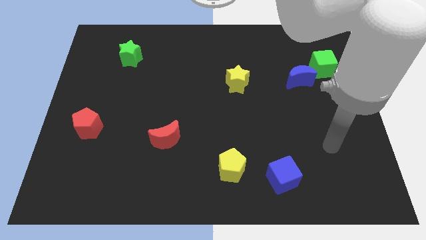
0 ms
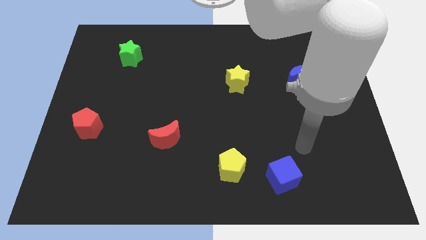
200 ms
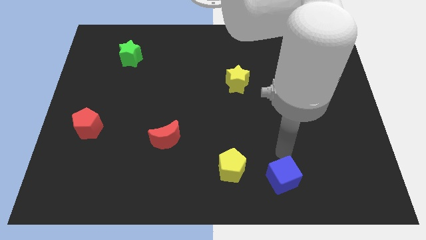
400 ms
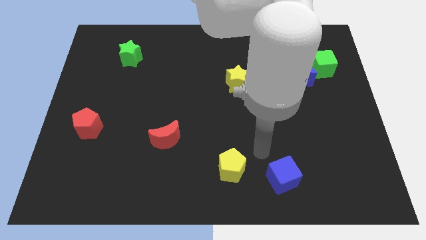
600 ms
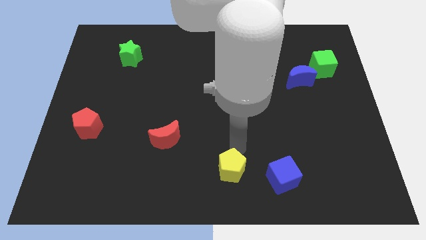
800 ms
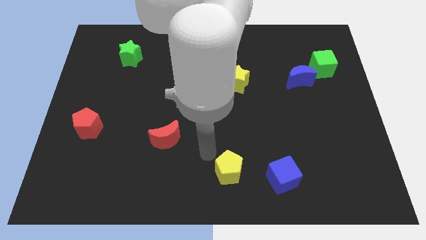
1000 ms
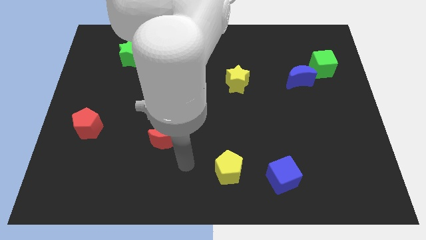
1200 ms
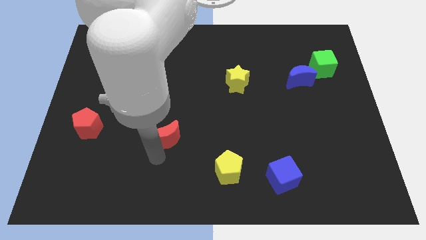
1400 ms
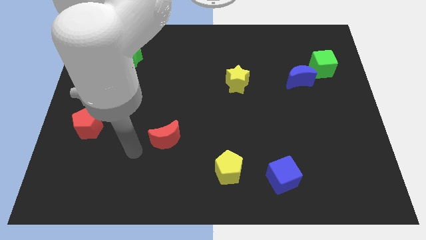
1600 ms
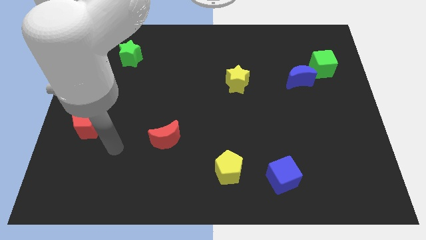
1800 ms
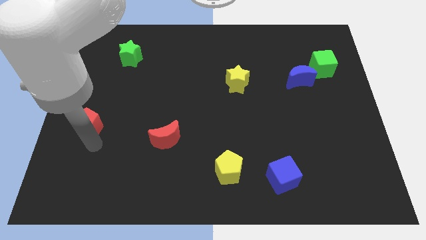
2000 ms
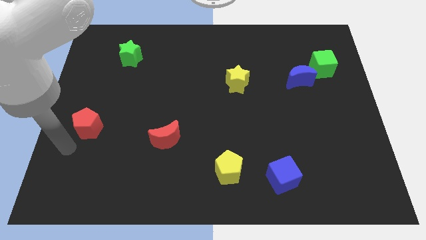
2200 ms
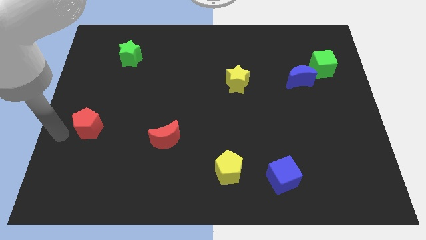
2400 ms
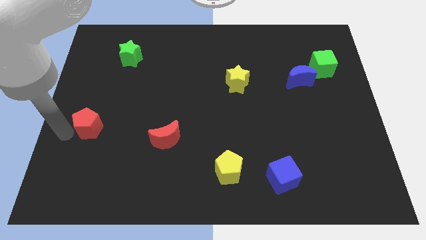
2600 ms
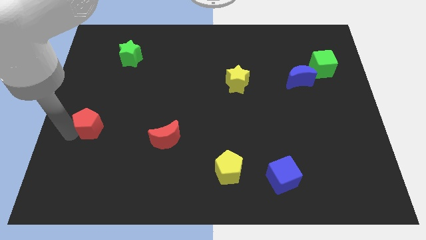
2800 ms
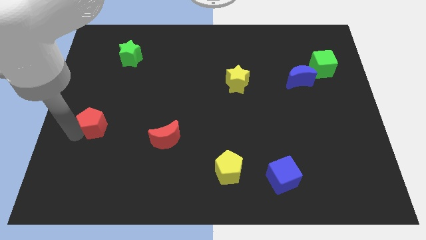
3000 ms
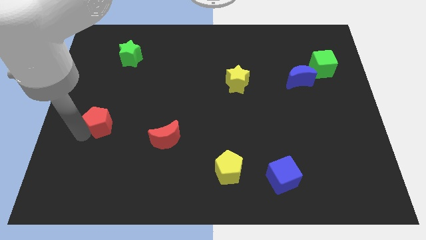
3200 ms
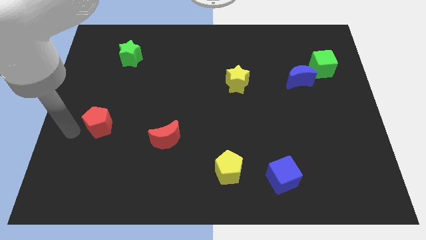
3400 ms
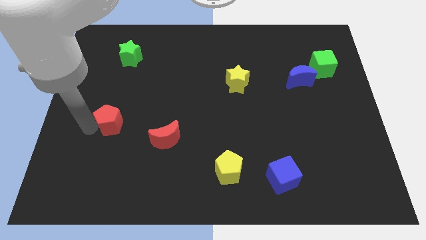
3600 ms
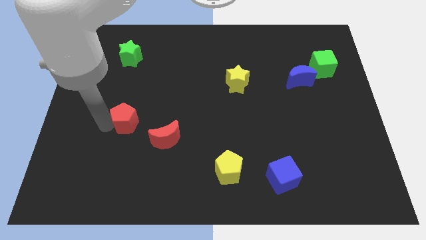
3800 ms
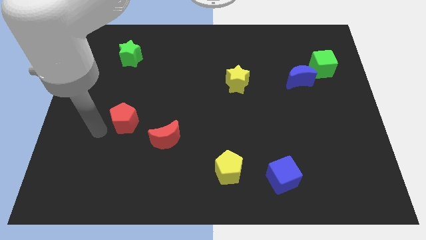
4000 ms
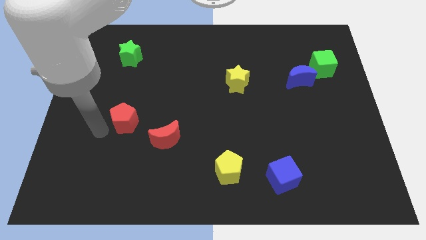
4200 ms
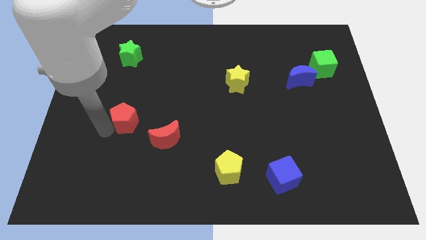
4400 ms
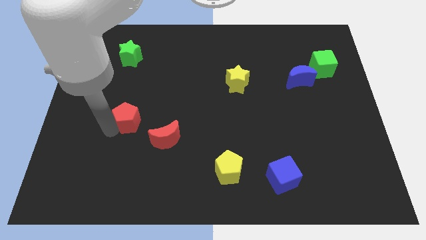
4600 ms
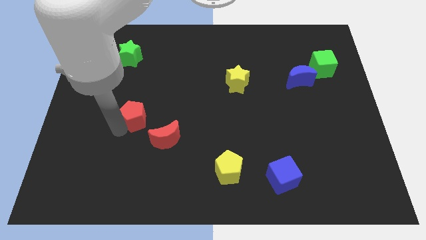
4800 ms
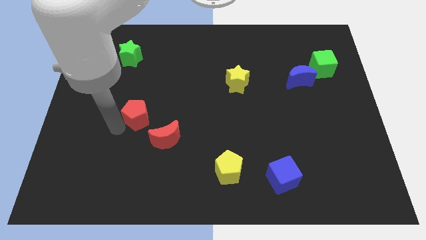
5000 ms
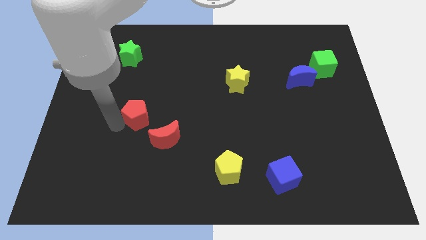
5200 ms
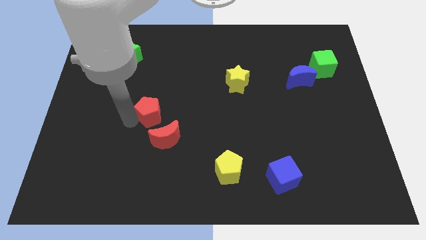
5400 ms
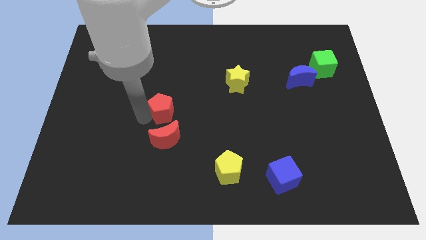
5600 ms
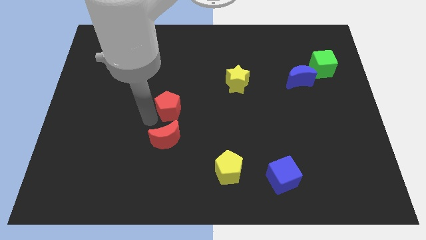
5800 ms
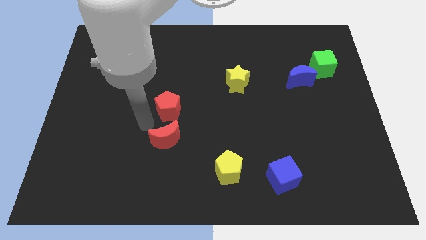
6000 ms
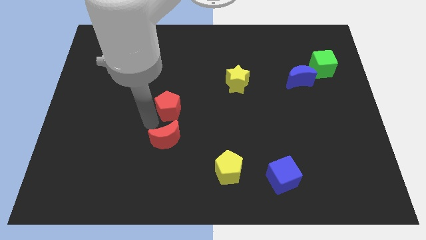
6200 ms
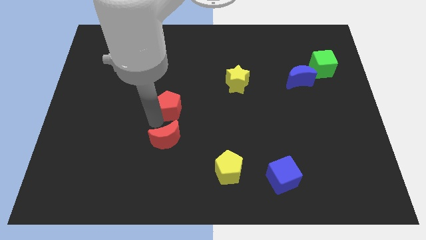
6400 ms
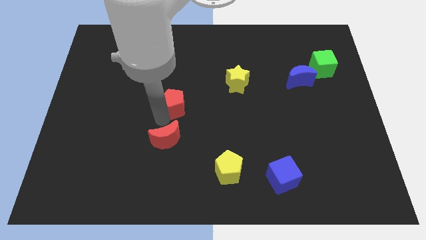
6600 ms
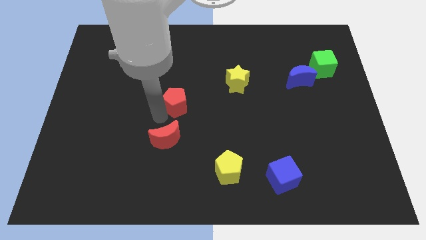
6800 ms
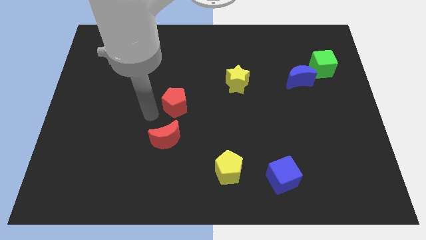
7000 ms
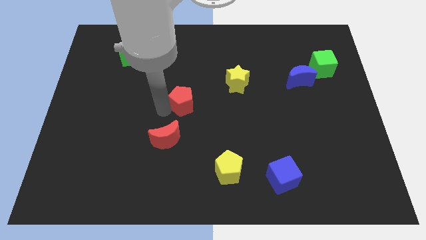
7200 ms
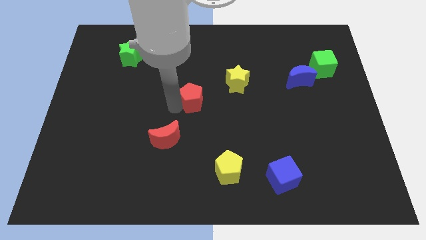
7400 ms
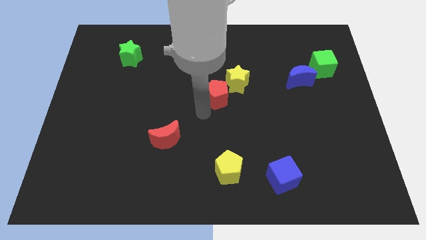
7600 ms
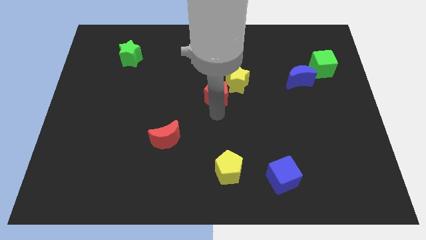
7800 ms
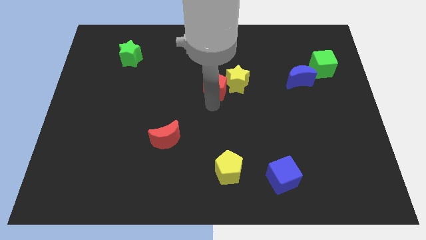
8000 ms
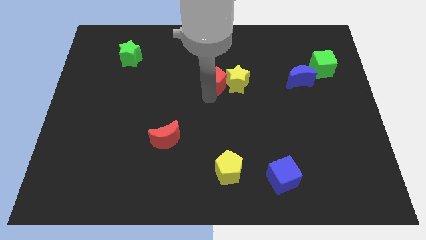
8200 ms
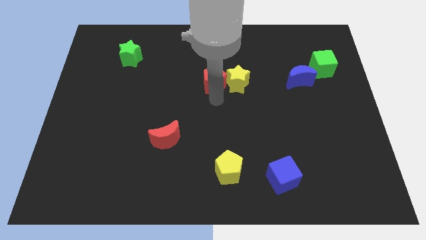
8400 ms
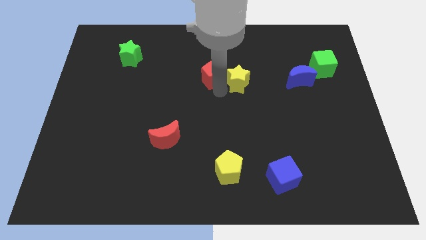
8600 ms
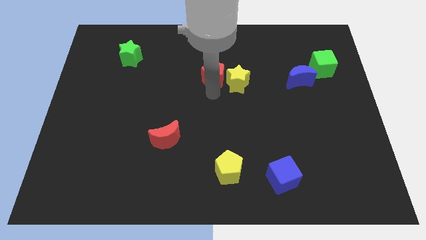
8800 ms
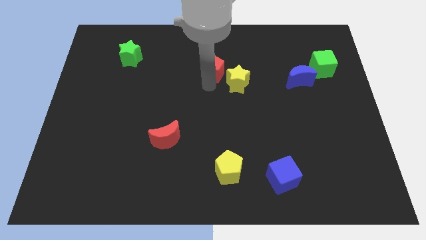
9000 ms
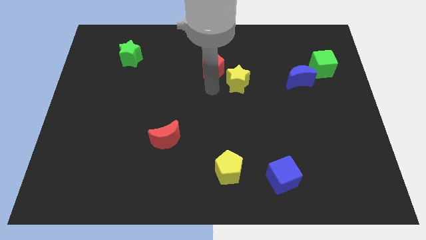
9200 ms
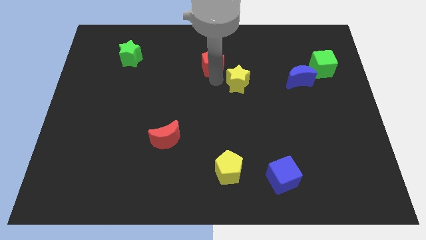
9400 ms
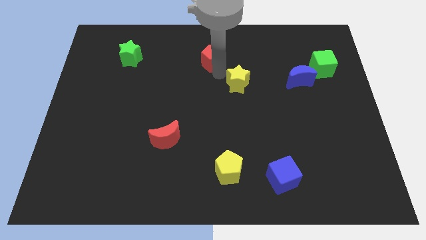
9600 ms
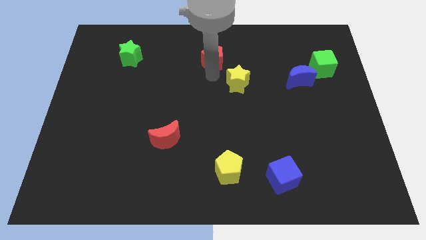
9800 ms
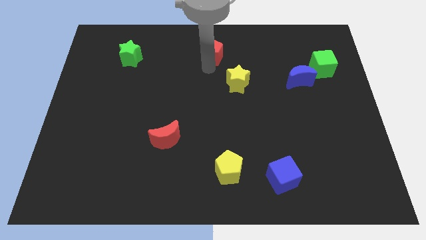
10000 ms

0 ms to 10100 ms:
put the red pentagon to the top
